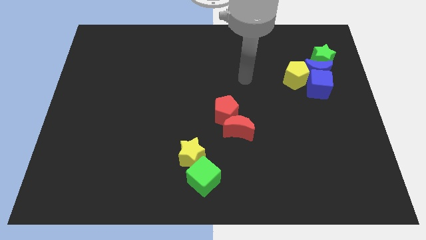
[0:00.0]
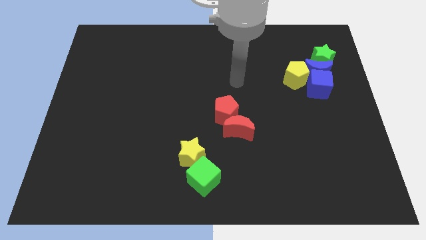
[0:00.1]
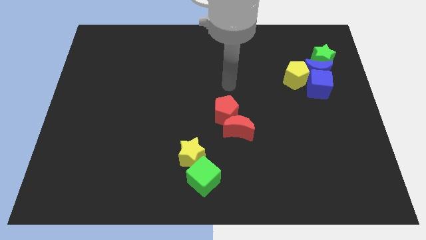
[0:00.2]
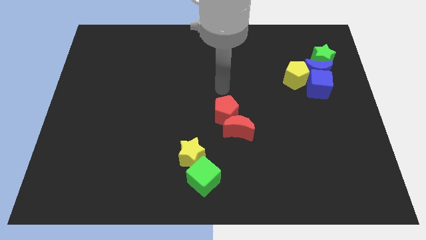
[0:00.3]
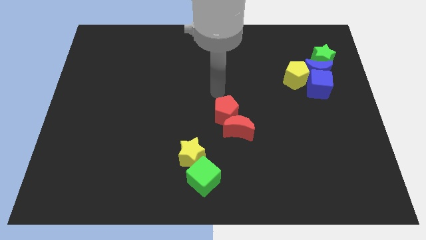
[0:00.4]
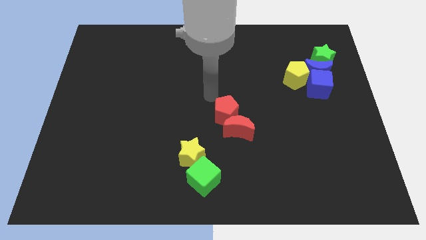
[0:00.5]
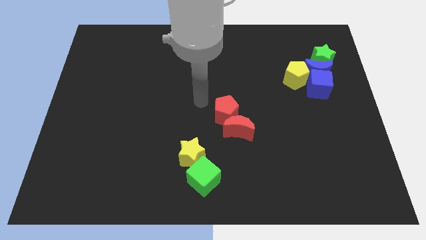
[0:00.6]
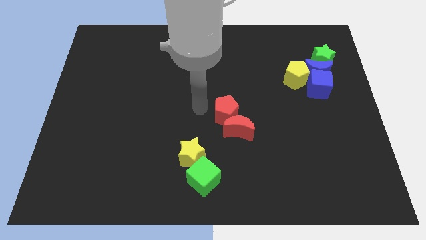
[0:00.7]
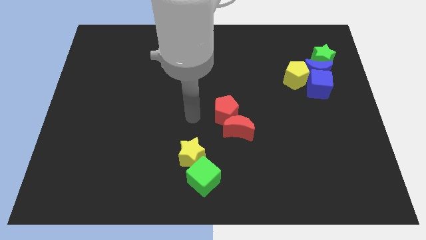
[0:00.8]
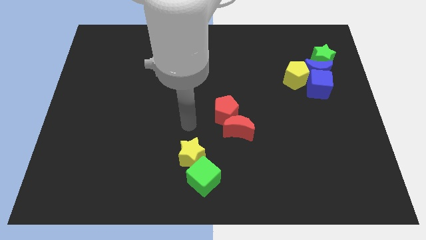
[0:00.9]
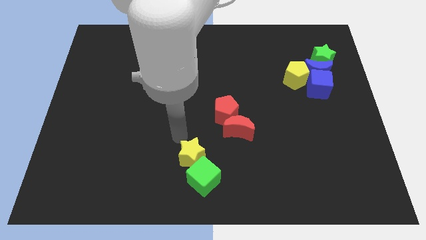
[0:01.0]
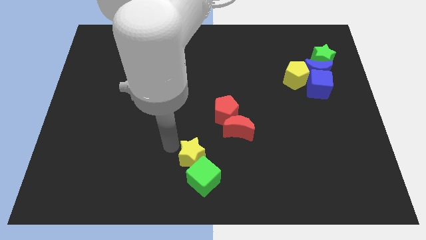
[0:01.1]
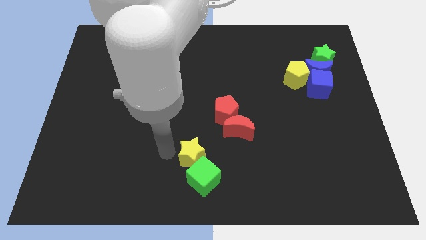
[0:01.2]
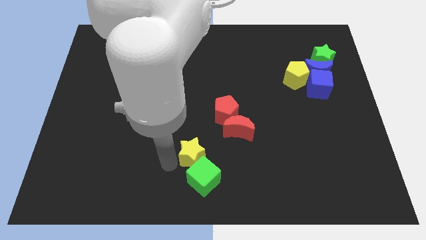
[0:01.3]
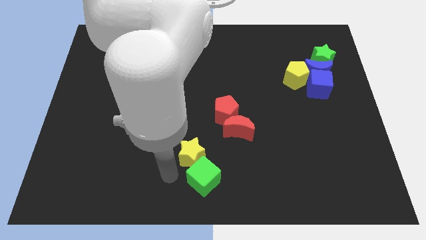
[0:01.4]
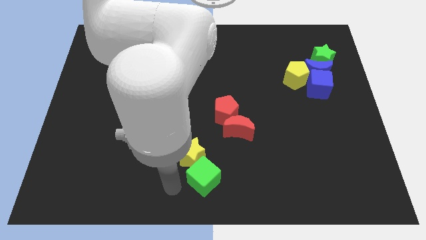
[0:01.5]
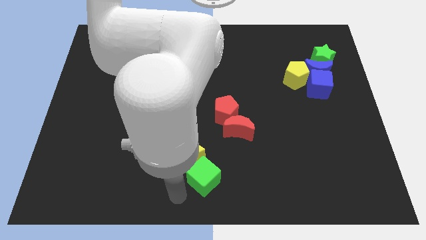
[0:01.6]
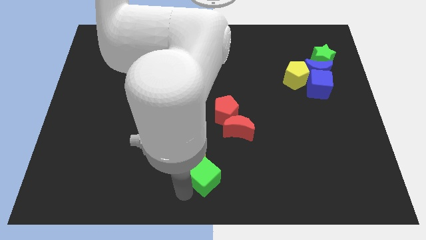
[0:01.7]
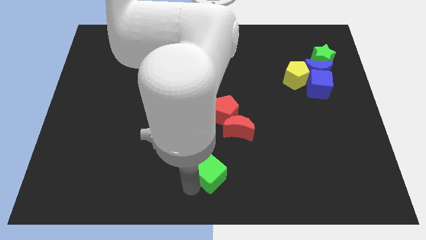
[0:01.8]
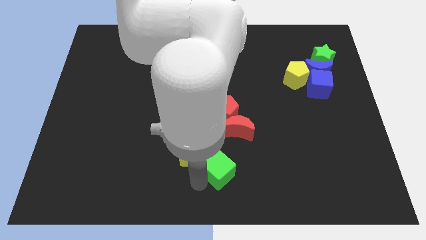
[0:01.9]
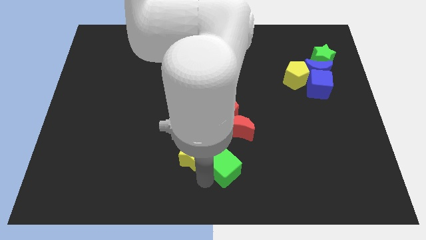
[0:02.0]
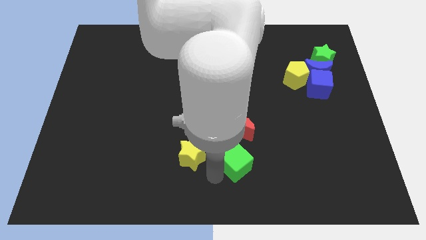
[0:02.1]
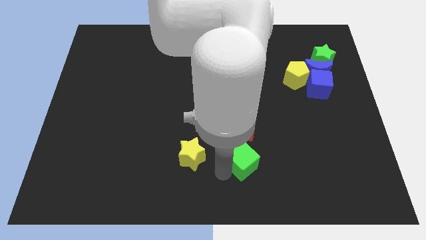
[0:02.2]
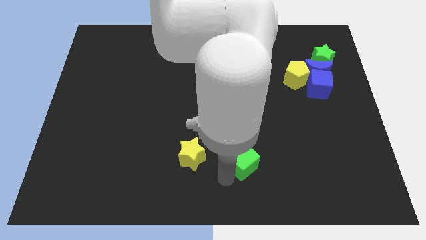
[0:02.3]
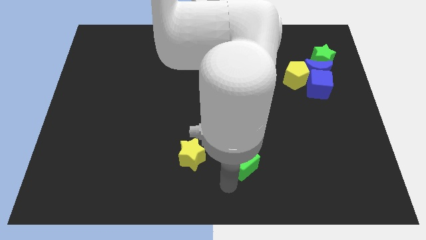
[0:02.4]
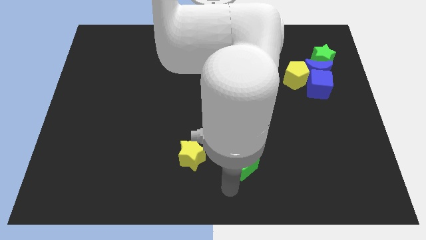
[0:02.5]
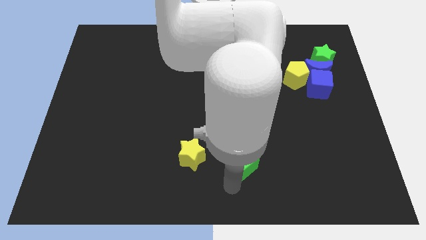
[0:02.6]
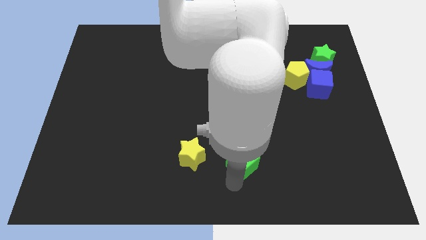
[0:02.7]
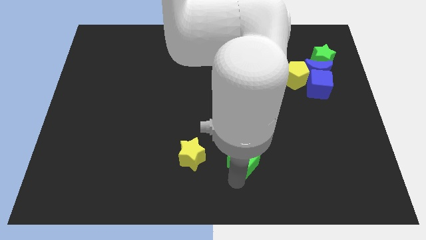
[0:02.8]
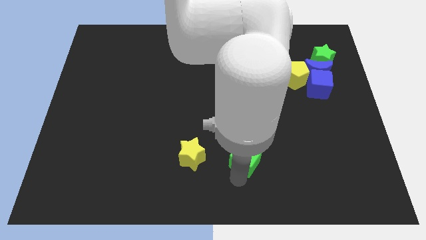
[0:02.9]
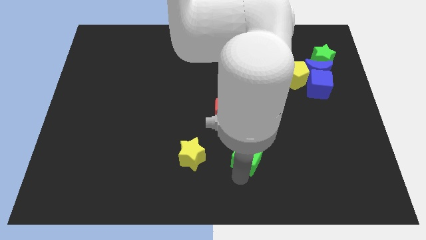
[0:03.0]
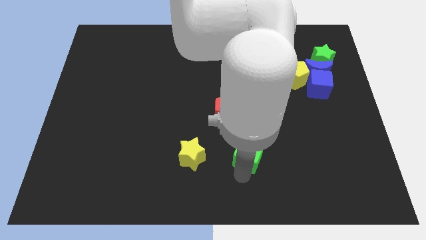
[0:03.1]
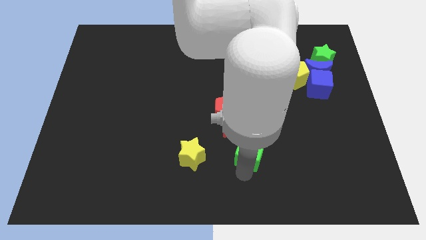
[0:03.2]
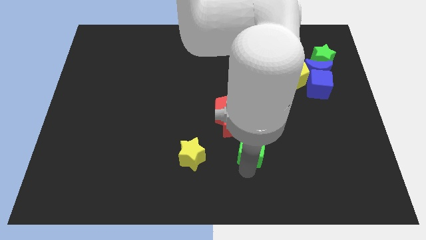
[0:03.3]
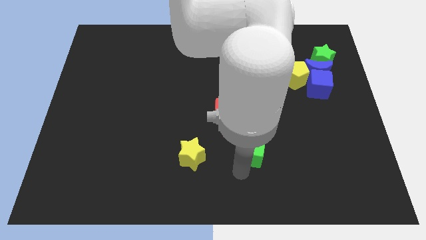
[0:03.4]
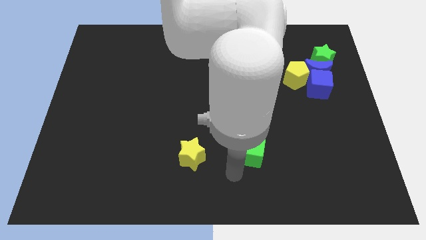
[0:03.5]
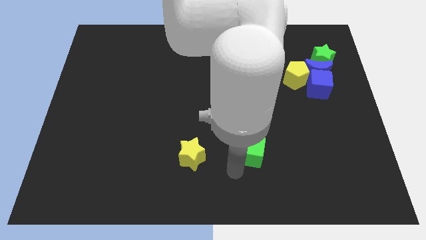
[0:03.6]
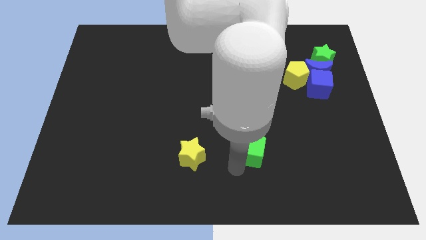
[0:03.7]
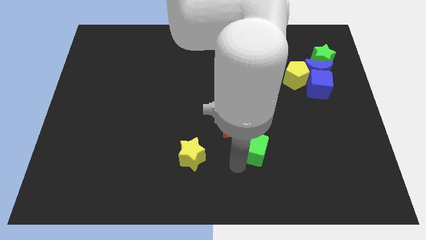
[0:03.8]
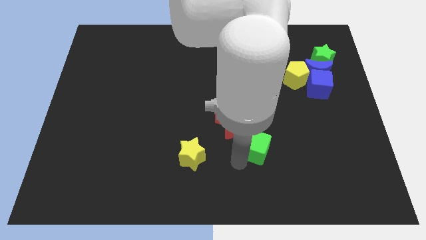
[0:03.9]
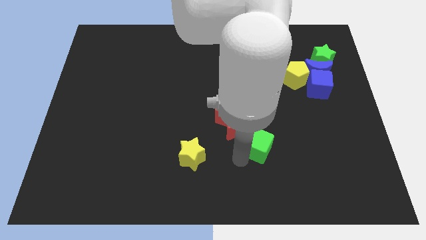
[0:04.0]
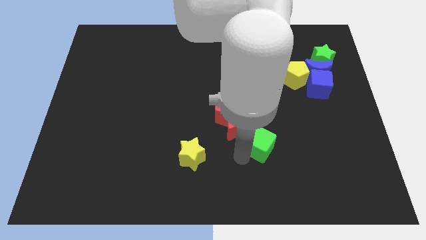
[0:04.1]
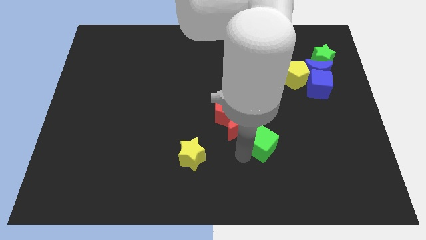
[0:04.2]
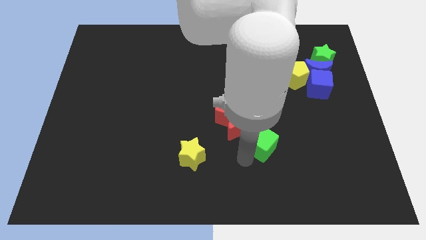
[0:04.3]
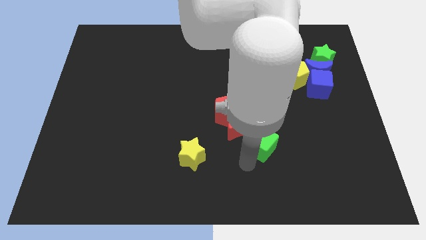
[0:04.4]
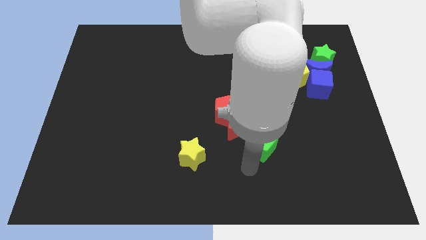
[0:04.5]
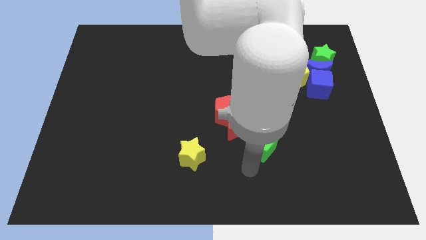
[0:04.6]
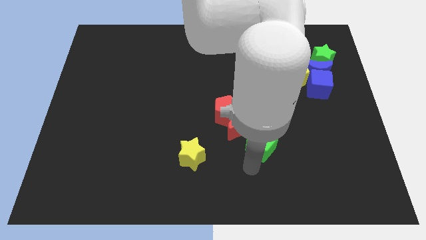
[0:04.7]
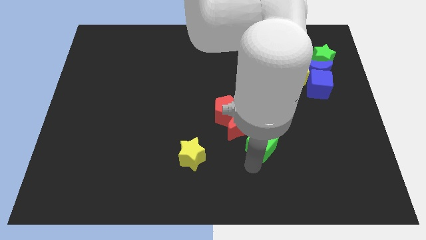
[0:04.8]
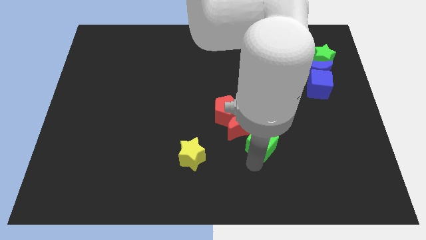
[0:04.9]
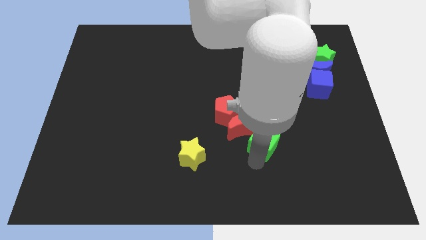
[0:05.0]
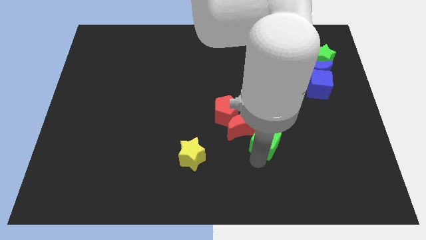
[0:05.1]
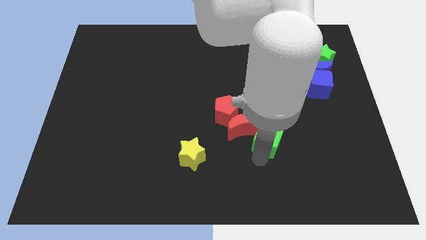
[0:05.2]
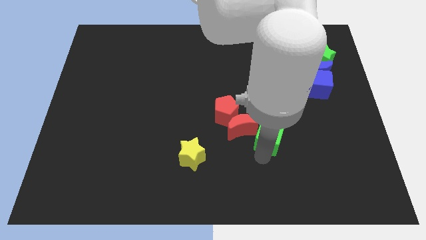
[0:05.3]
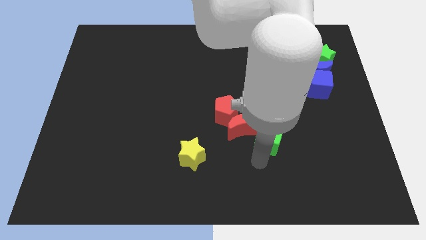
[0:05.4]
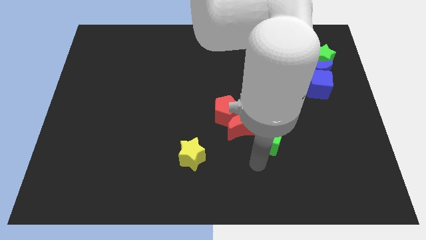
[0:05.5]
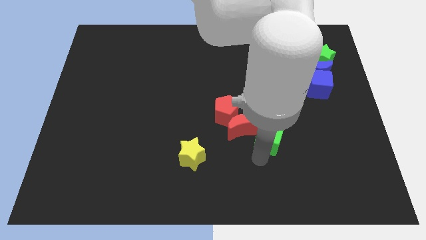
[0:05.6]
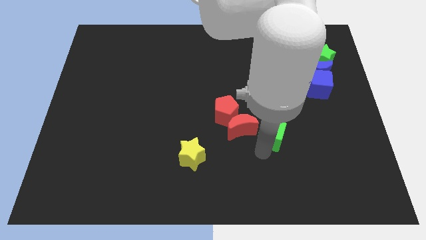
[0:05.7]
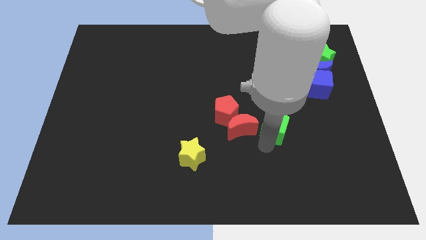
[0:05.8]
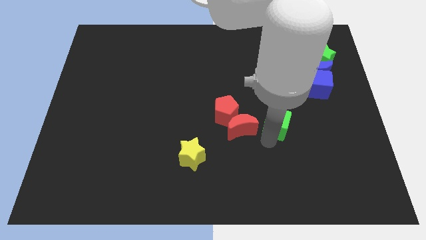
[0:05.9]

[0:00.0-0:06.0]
move the green cube up and to the right

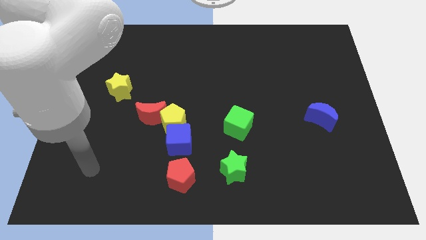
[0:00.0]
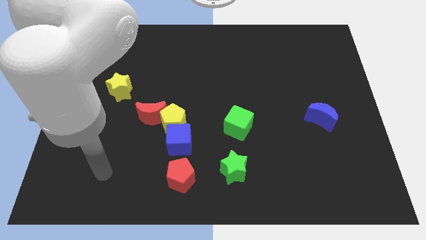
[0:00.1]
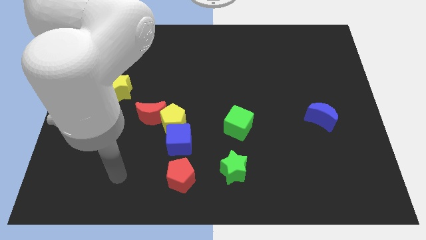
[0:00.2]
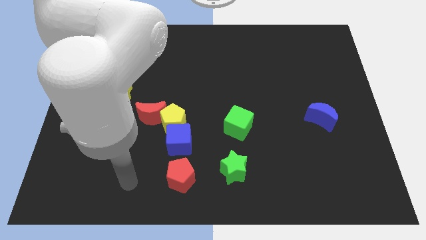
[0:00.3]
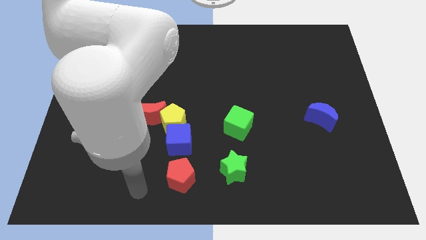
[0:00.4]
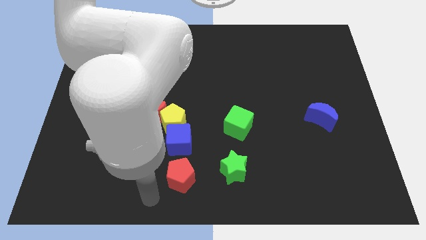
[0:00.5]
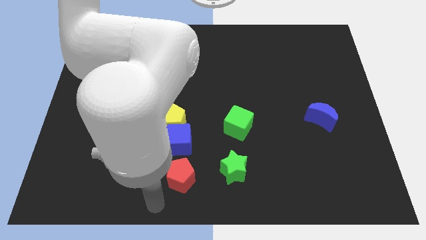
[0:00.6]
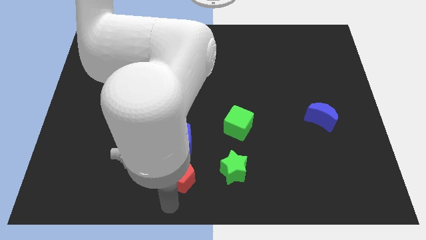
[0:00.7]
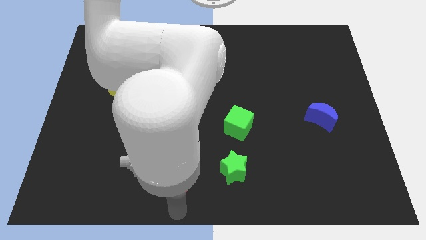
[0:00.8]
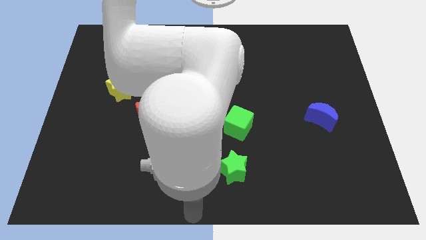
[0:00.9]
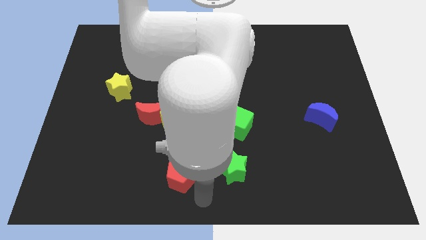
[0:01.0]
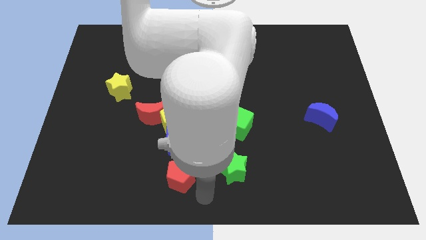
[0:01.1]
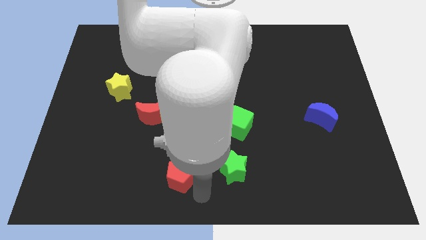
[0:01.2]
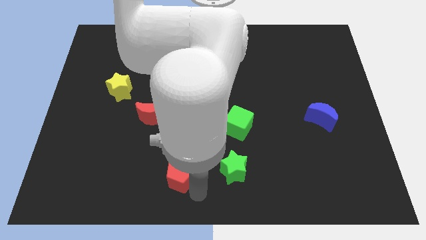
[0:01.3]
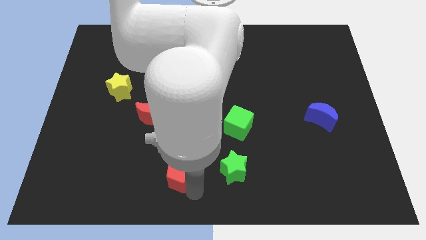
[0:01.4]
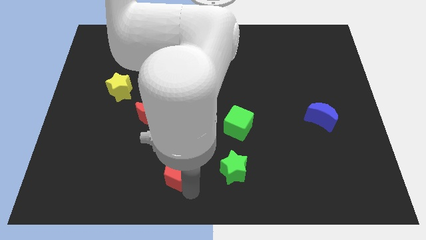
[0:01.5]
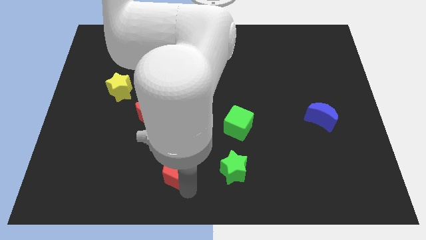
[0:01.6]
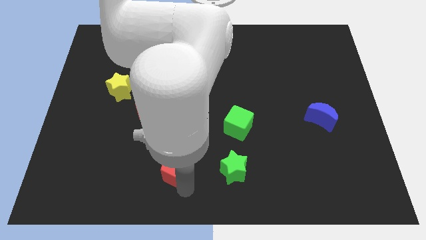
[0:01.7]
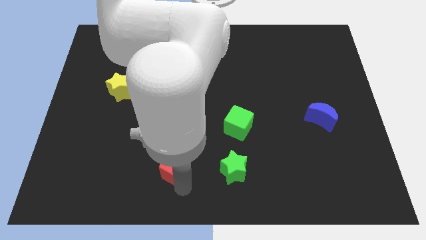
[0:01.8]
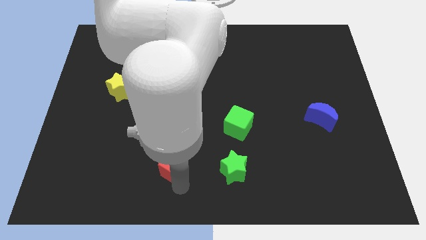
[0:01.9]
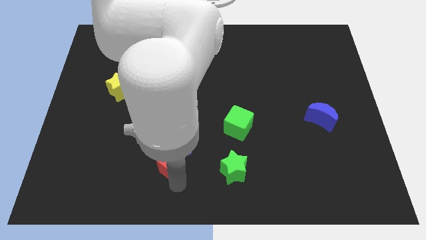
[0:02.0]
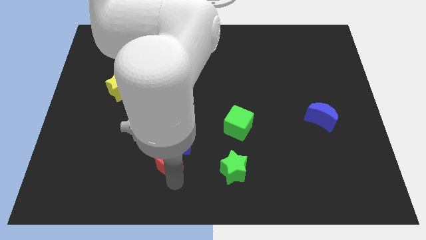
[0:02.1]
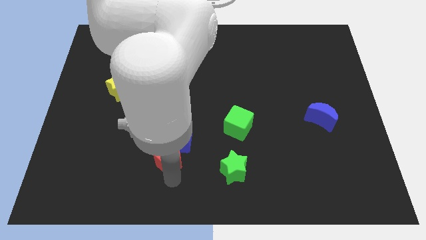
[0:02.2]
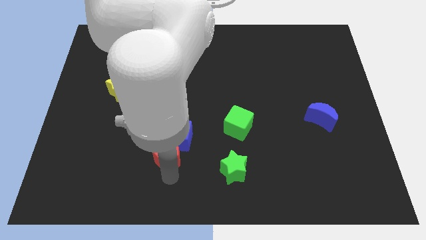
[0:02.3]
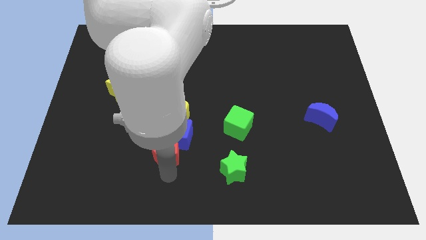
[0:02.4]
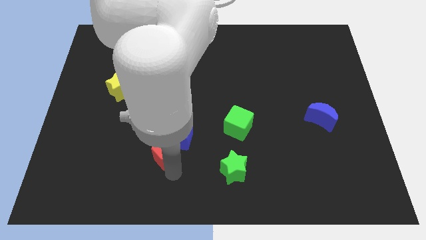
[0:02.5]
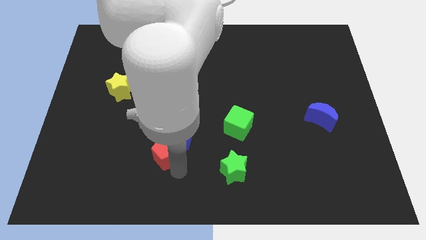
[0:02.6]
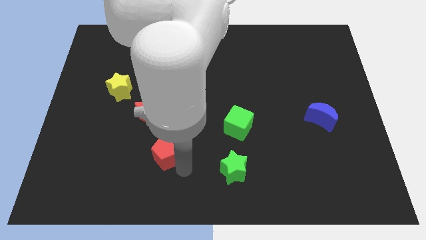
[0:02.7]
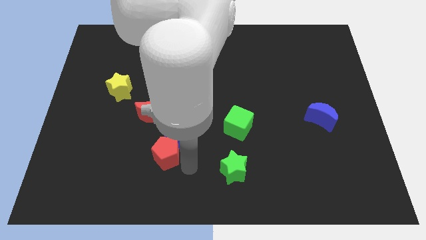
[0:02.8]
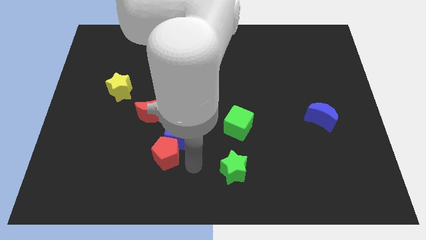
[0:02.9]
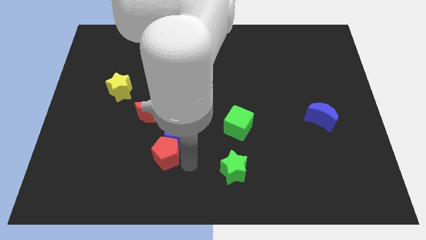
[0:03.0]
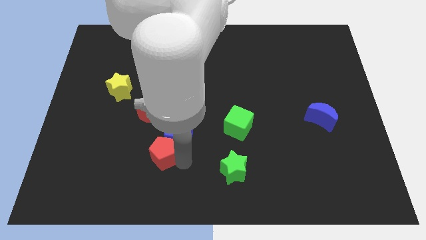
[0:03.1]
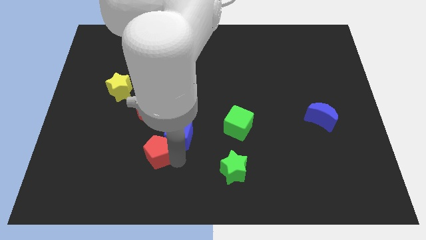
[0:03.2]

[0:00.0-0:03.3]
push the red pentagon somewhat up and to the left
